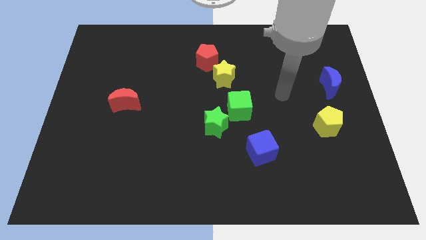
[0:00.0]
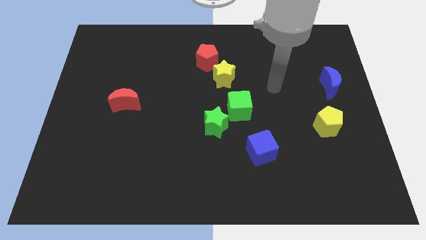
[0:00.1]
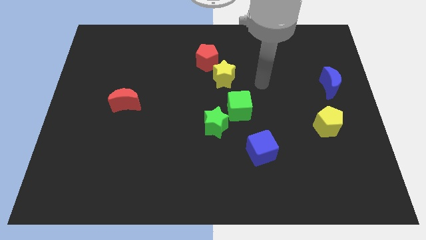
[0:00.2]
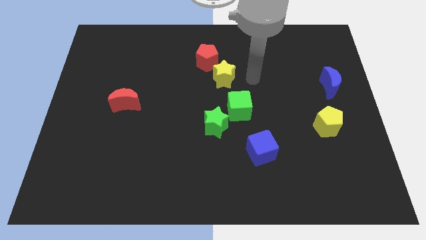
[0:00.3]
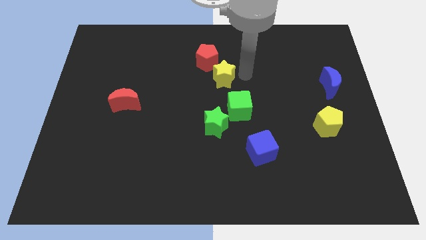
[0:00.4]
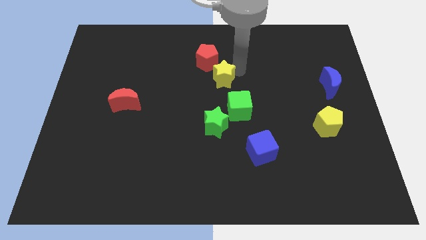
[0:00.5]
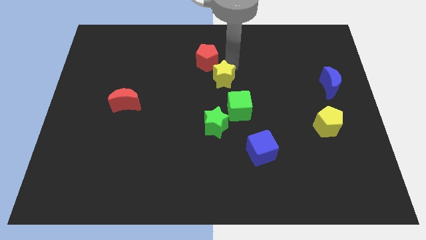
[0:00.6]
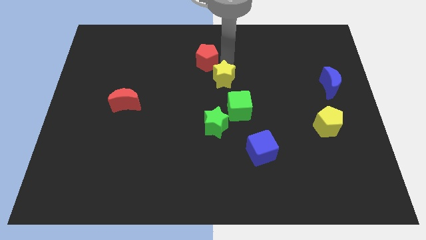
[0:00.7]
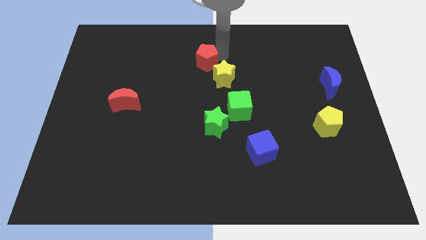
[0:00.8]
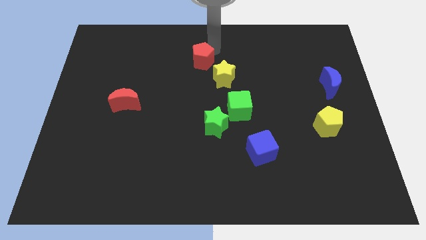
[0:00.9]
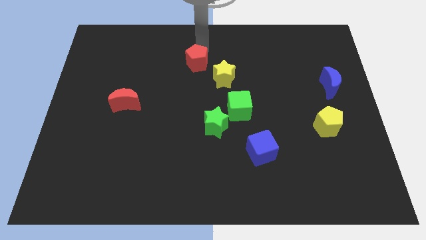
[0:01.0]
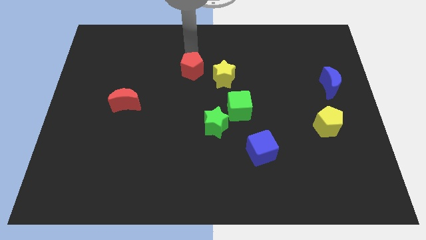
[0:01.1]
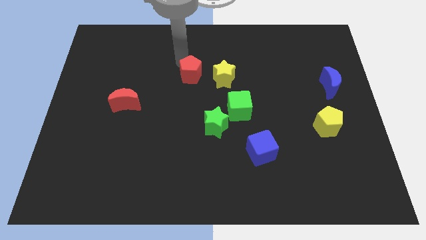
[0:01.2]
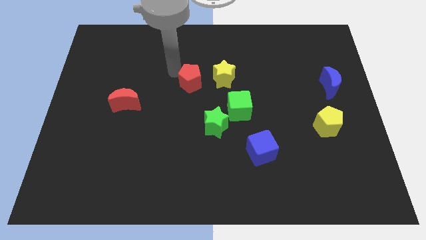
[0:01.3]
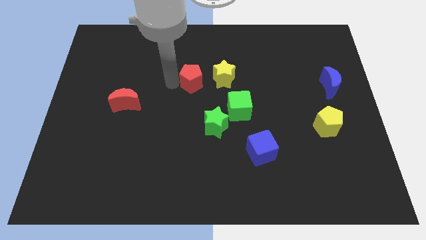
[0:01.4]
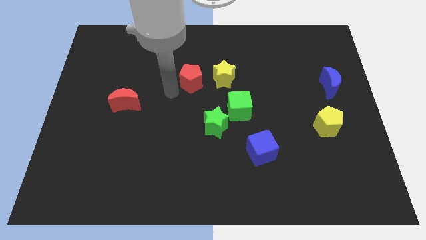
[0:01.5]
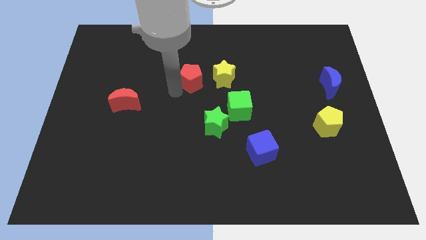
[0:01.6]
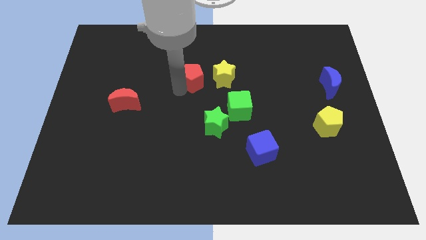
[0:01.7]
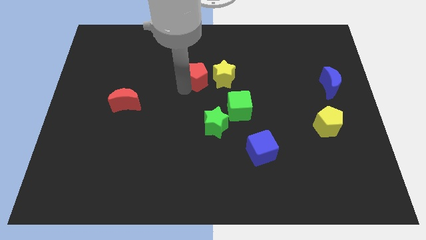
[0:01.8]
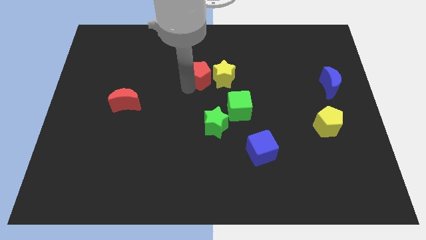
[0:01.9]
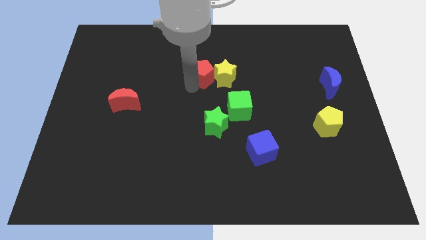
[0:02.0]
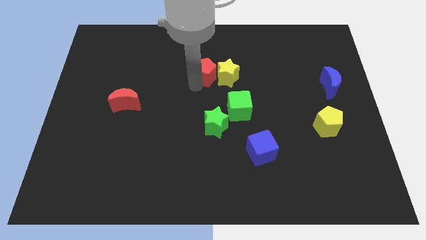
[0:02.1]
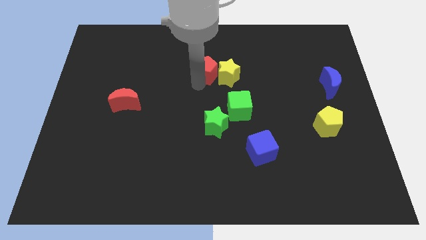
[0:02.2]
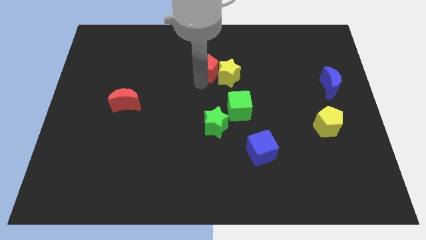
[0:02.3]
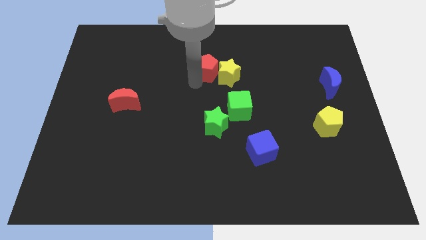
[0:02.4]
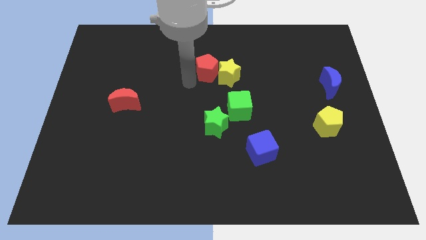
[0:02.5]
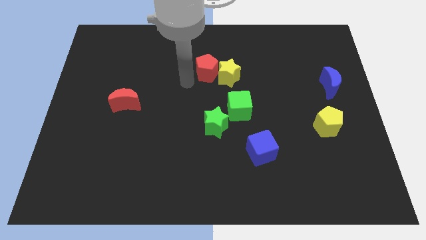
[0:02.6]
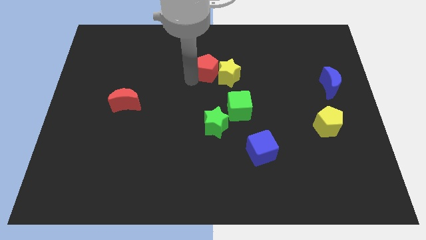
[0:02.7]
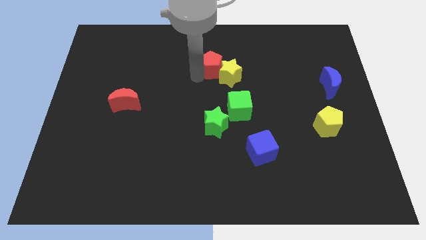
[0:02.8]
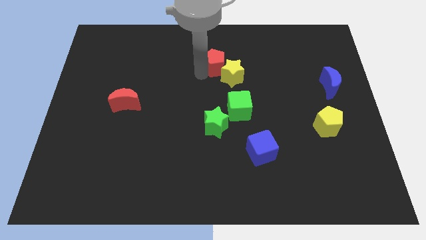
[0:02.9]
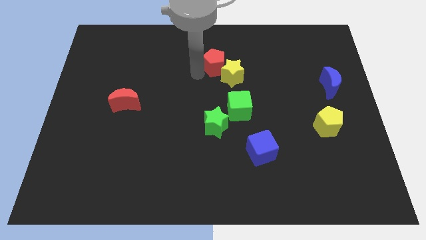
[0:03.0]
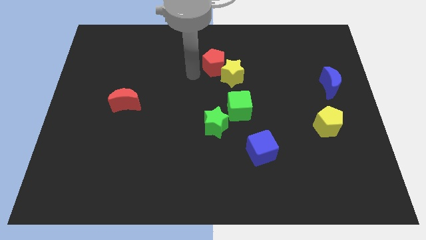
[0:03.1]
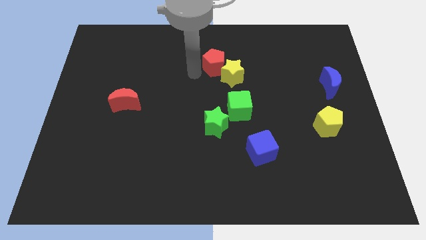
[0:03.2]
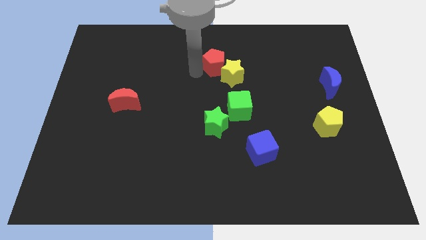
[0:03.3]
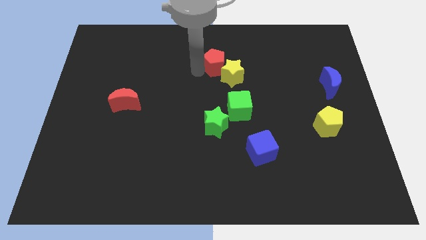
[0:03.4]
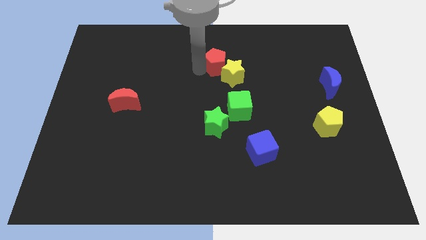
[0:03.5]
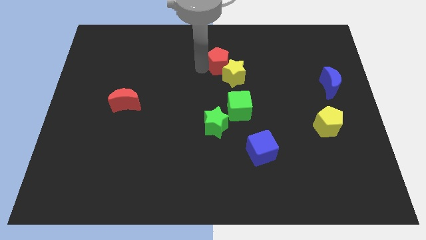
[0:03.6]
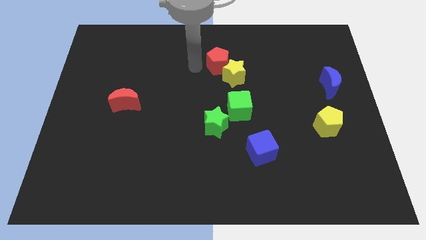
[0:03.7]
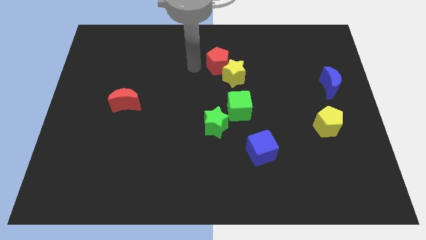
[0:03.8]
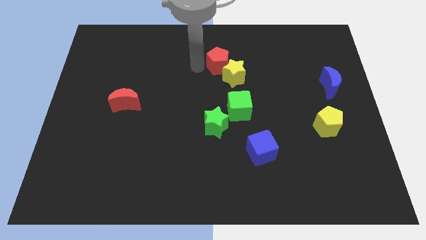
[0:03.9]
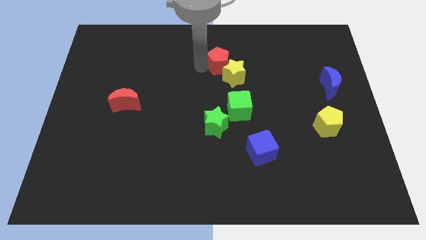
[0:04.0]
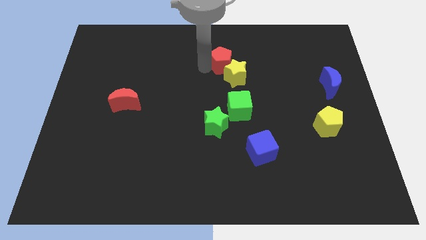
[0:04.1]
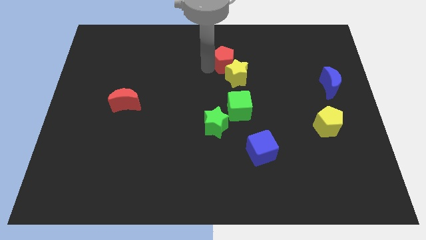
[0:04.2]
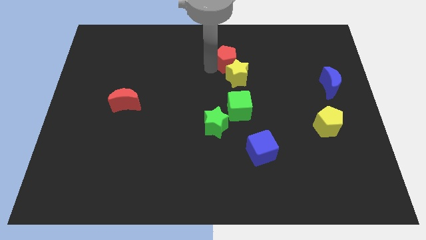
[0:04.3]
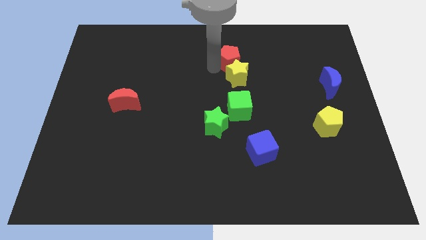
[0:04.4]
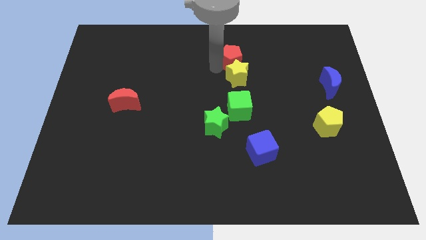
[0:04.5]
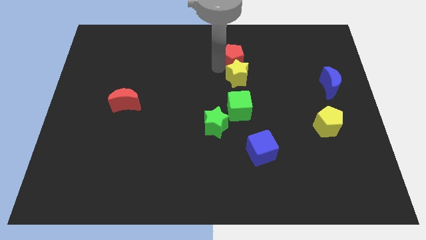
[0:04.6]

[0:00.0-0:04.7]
slightly push the red pentagon right

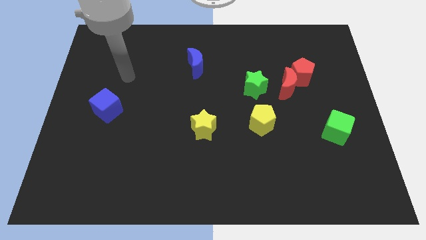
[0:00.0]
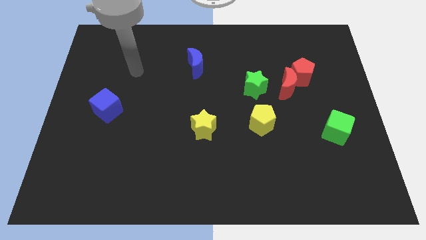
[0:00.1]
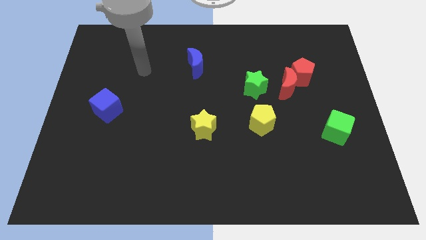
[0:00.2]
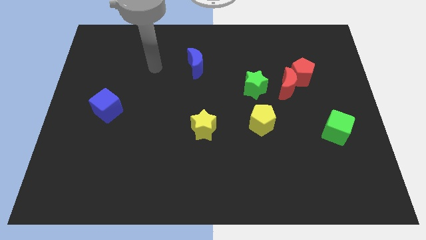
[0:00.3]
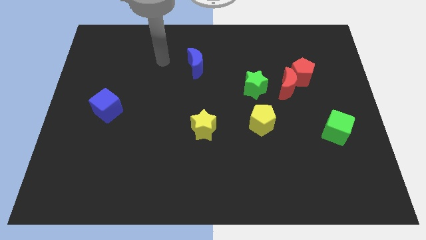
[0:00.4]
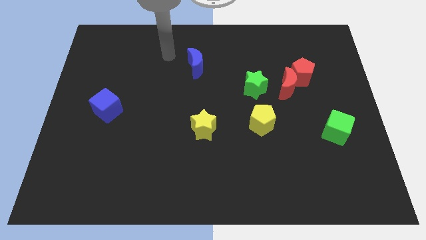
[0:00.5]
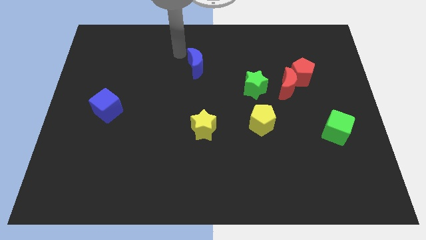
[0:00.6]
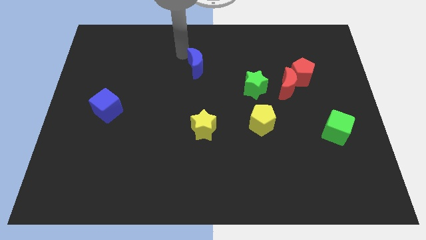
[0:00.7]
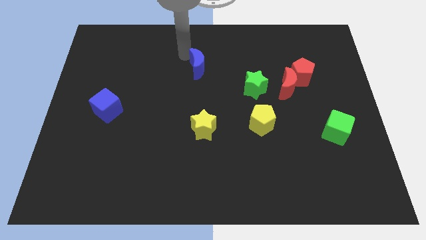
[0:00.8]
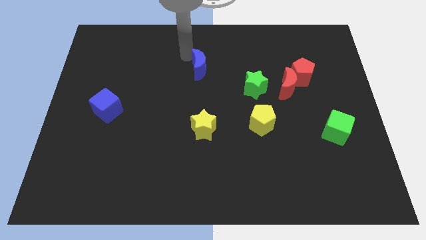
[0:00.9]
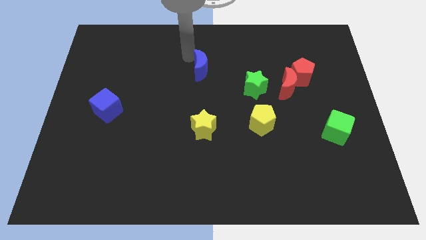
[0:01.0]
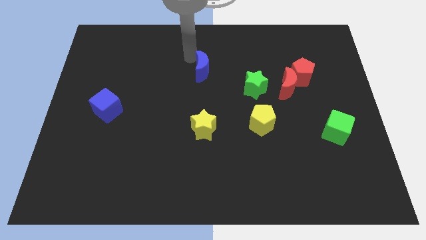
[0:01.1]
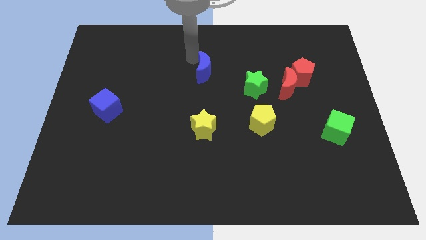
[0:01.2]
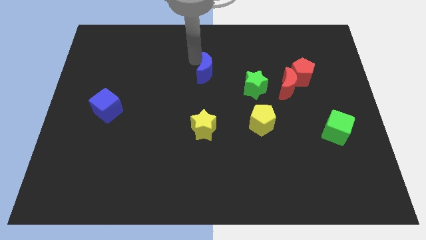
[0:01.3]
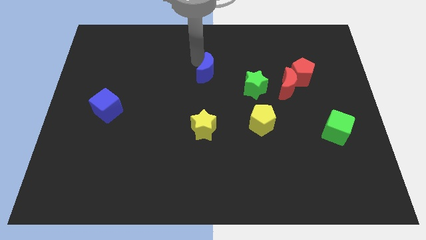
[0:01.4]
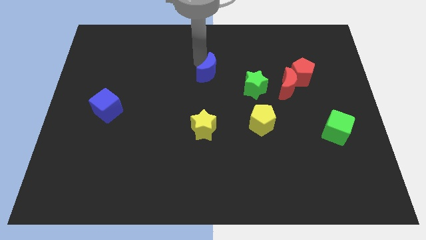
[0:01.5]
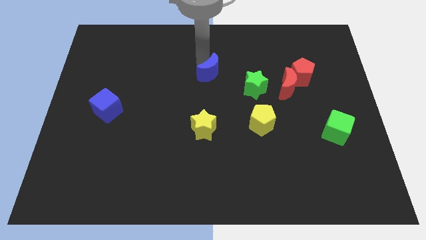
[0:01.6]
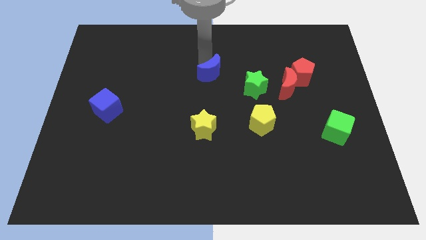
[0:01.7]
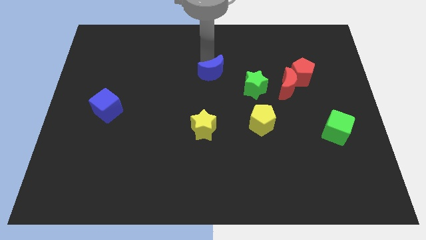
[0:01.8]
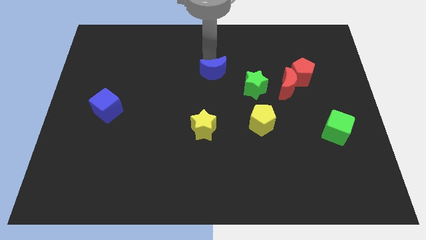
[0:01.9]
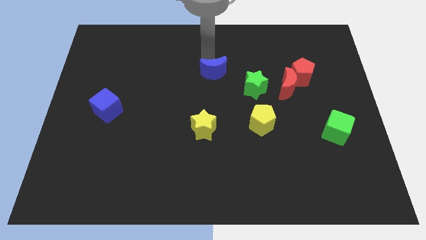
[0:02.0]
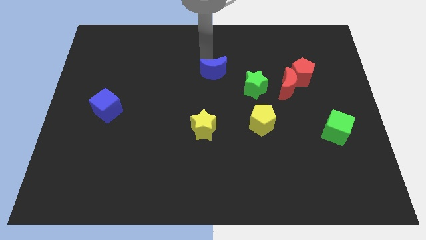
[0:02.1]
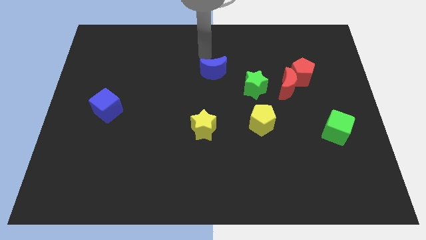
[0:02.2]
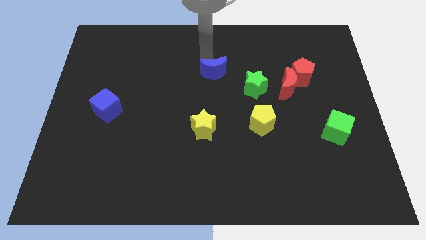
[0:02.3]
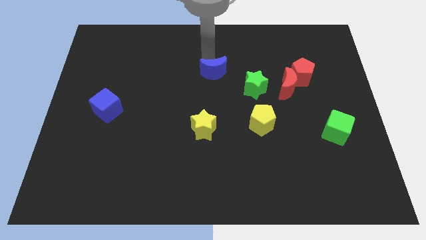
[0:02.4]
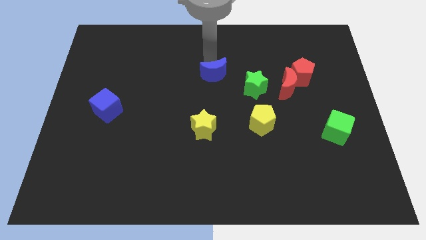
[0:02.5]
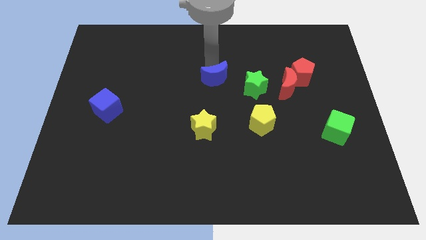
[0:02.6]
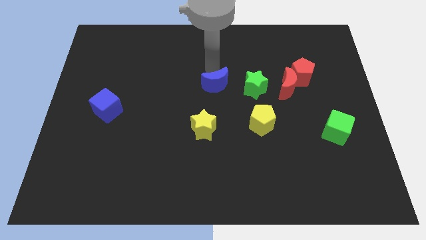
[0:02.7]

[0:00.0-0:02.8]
push the blue moon downwards and right diagonally slightly

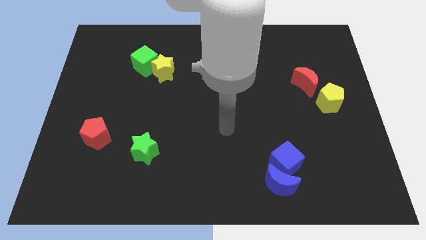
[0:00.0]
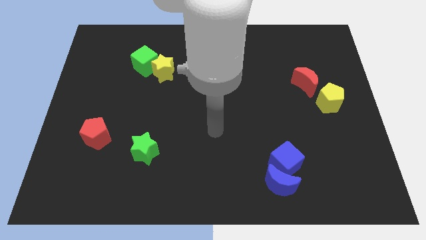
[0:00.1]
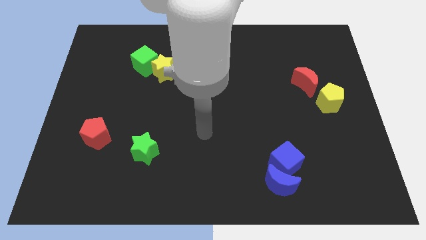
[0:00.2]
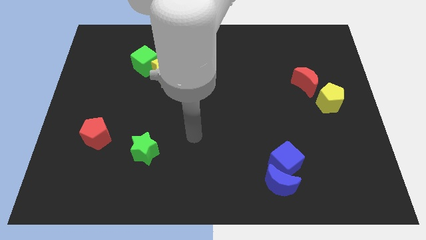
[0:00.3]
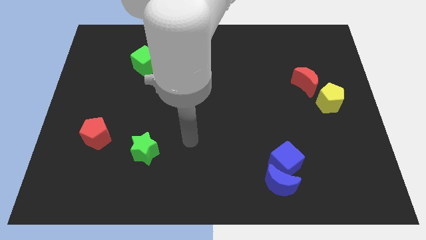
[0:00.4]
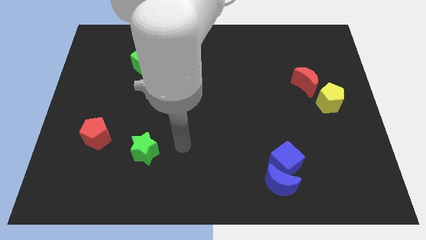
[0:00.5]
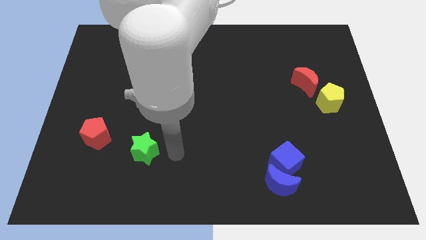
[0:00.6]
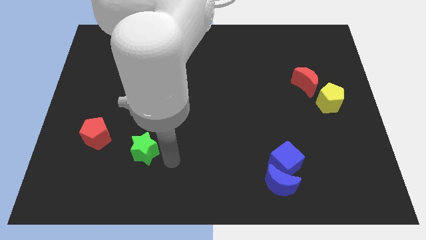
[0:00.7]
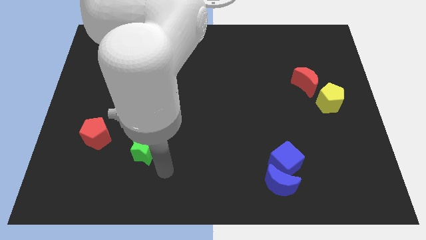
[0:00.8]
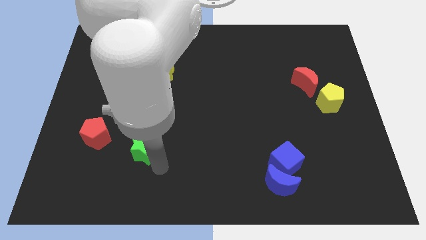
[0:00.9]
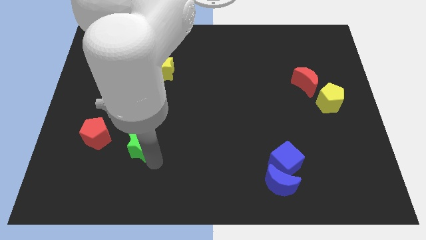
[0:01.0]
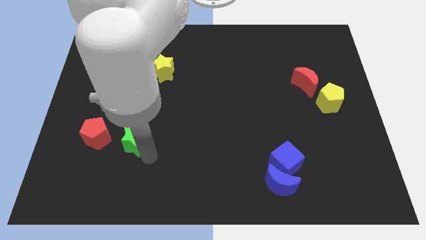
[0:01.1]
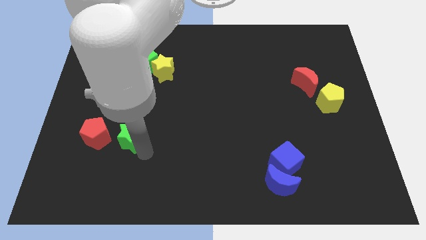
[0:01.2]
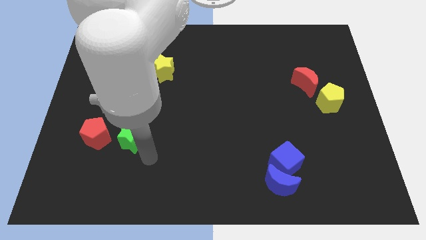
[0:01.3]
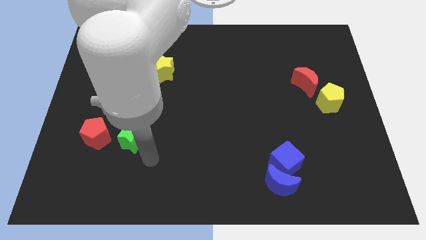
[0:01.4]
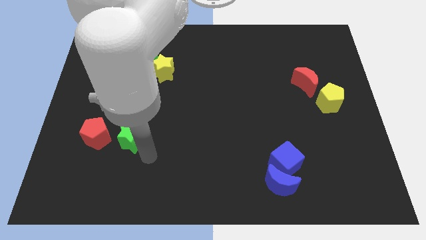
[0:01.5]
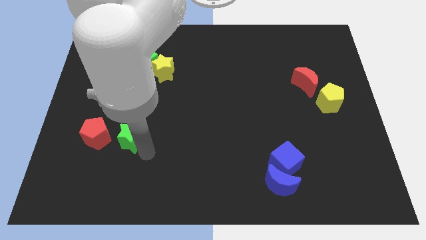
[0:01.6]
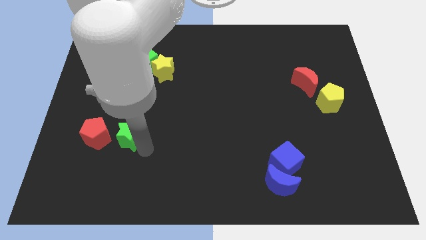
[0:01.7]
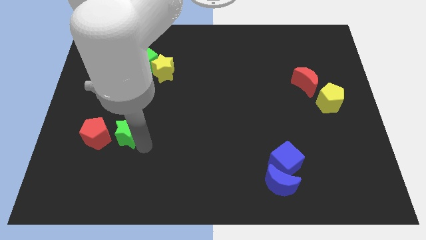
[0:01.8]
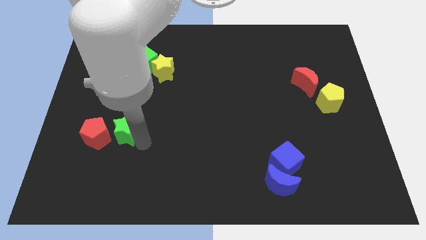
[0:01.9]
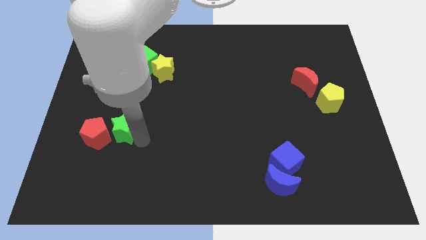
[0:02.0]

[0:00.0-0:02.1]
push the green star a little diagonally up and to the left
